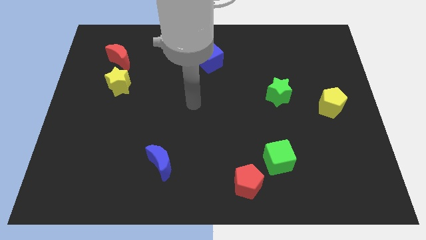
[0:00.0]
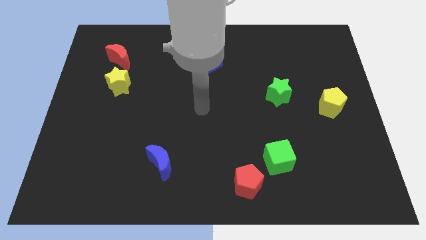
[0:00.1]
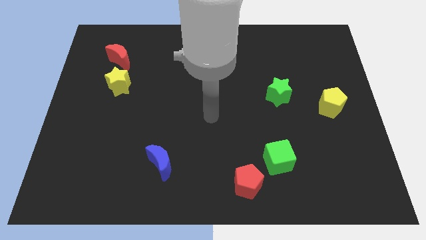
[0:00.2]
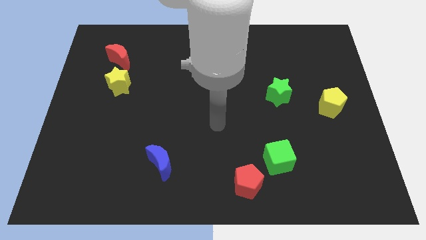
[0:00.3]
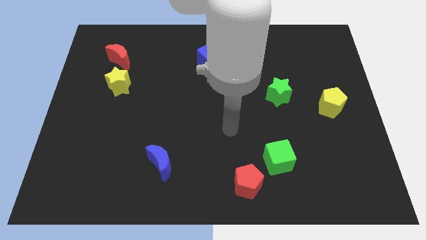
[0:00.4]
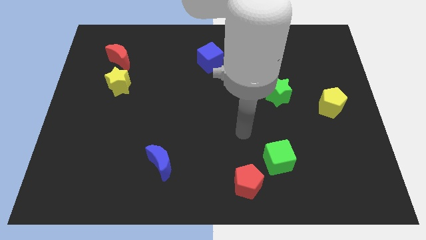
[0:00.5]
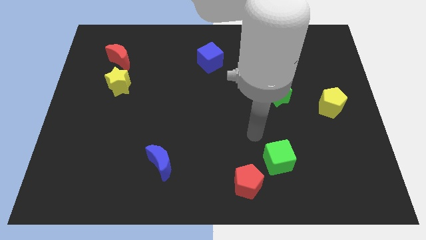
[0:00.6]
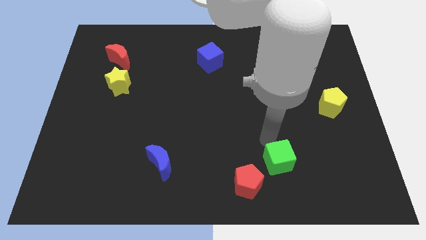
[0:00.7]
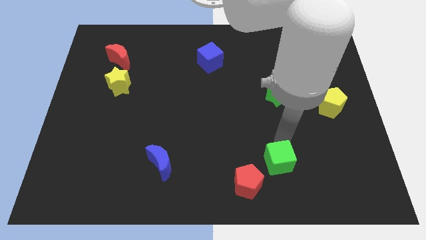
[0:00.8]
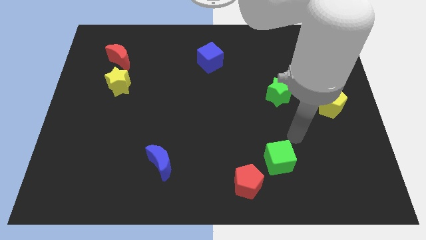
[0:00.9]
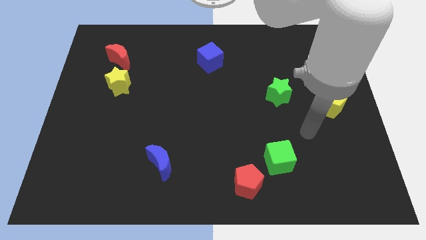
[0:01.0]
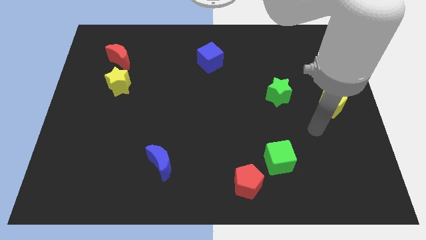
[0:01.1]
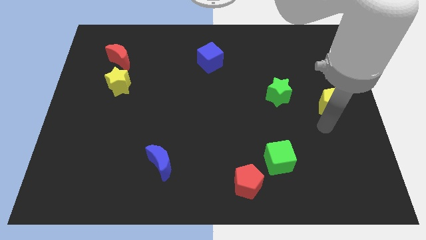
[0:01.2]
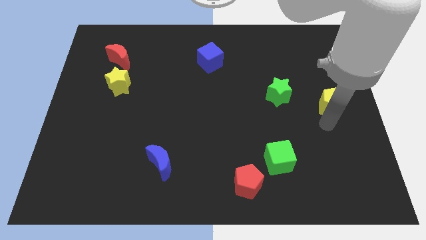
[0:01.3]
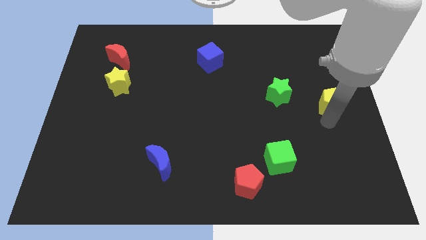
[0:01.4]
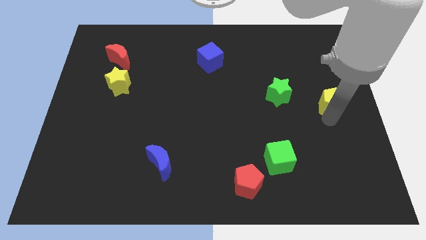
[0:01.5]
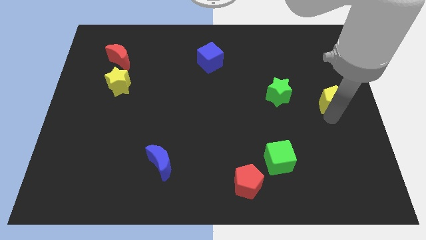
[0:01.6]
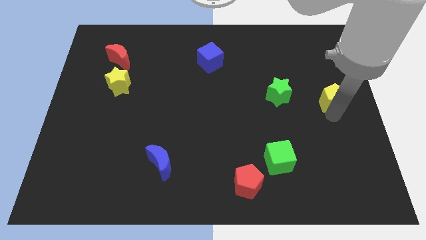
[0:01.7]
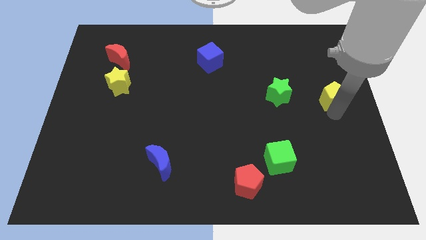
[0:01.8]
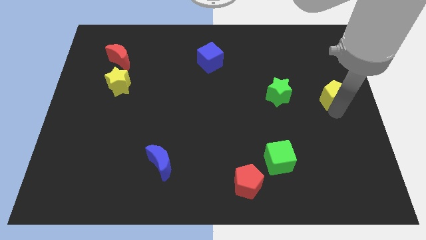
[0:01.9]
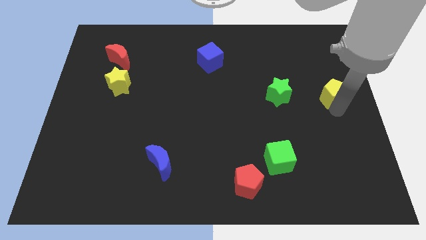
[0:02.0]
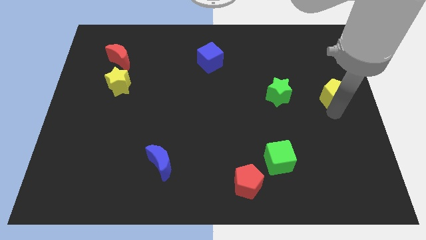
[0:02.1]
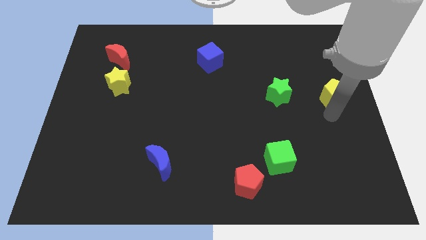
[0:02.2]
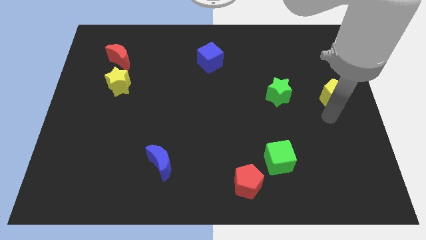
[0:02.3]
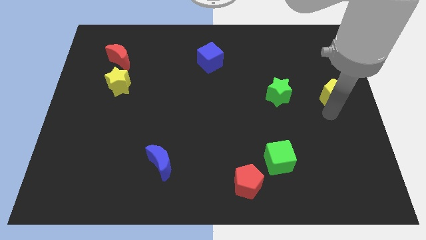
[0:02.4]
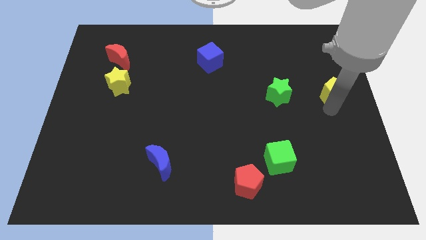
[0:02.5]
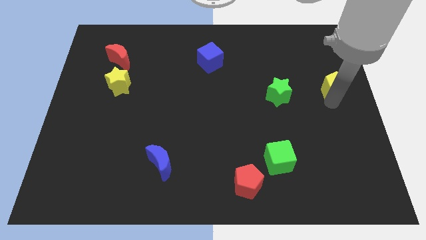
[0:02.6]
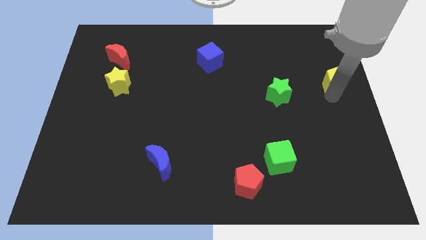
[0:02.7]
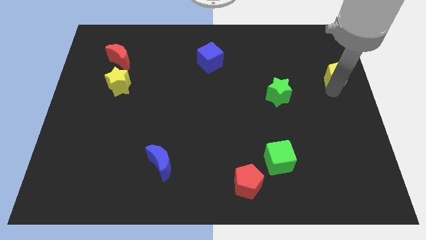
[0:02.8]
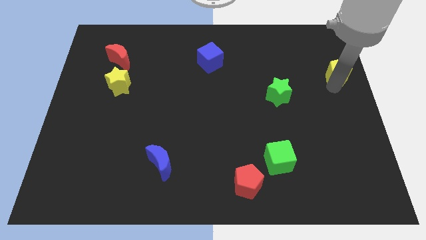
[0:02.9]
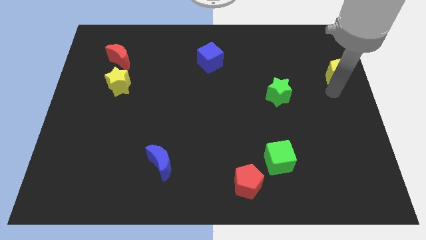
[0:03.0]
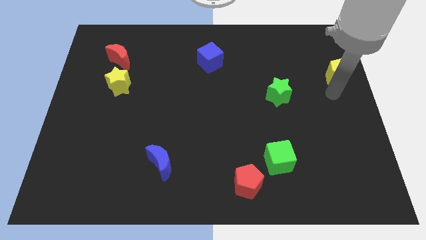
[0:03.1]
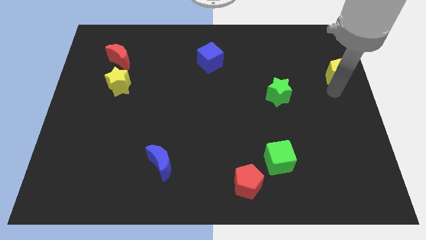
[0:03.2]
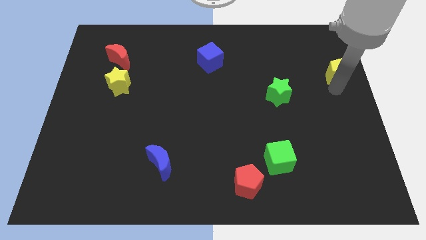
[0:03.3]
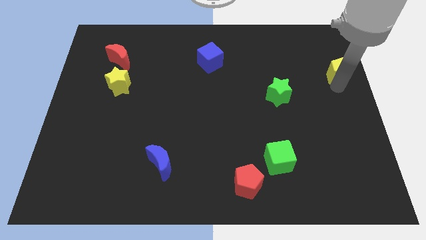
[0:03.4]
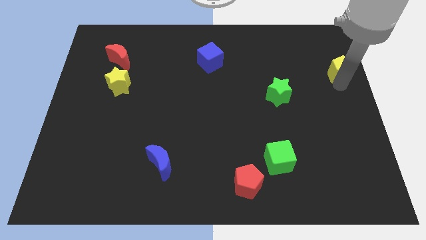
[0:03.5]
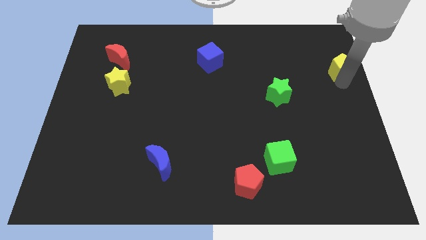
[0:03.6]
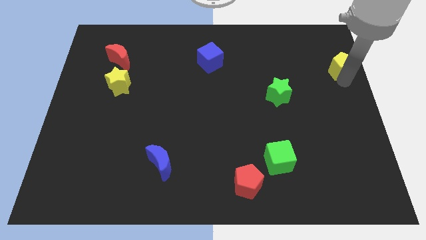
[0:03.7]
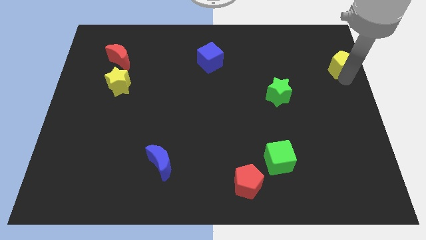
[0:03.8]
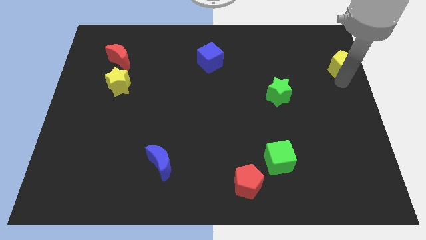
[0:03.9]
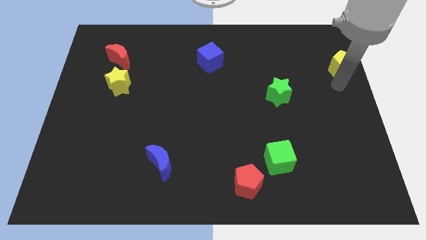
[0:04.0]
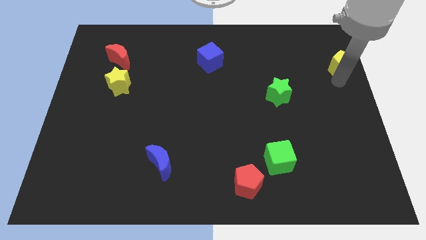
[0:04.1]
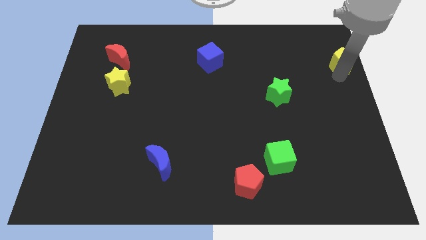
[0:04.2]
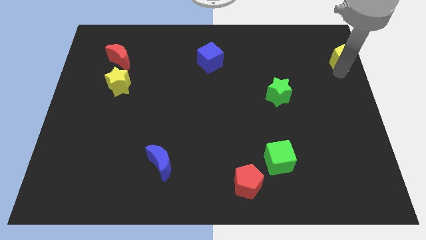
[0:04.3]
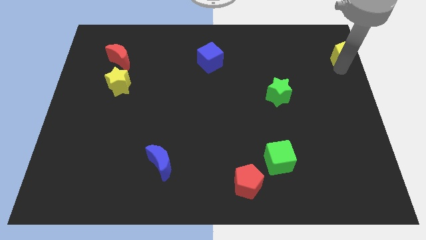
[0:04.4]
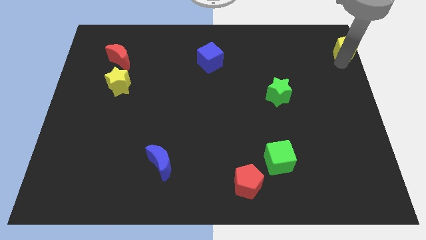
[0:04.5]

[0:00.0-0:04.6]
slide the yellow pentagon to the top right corner

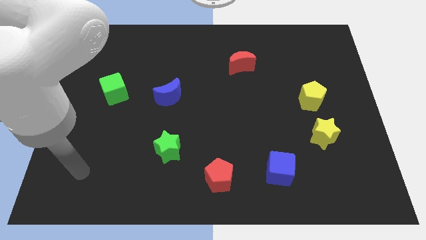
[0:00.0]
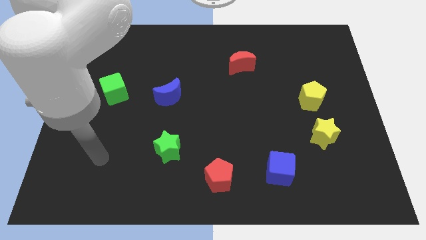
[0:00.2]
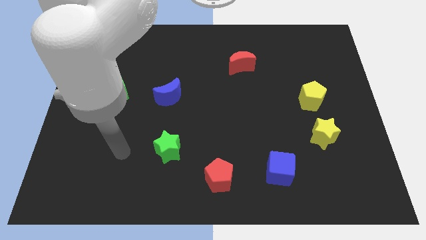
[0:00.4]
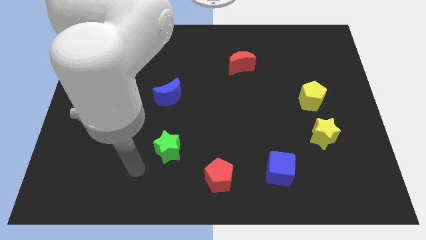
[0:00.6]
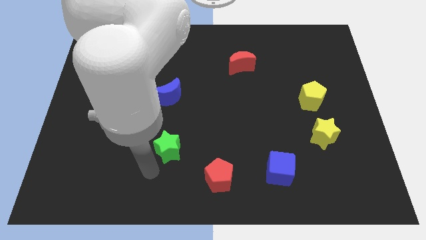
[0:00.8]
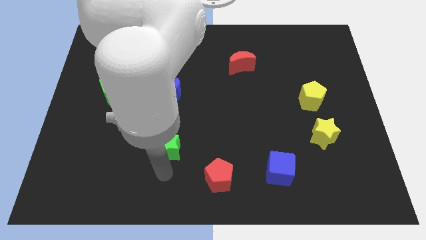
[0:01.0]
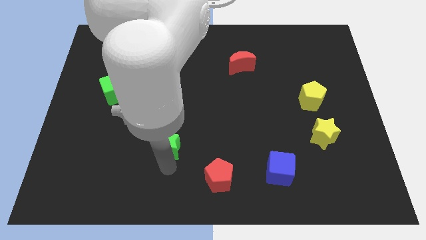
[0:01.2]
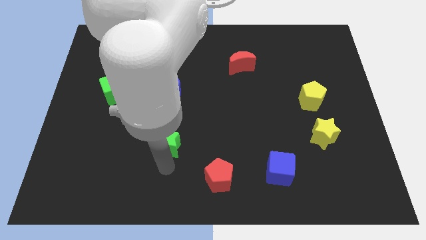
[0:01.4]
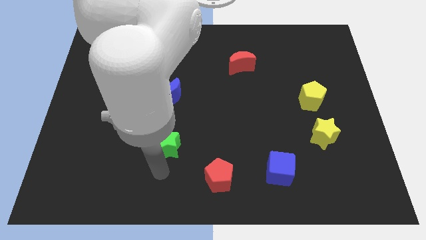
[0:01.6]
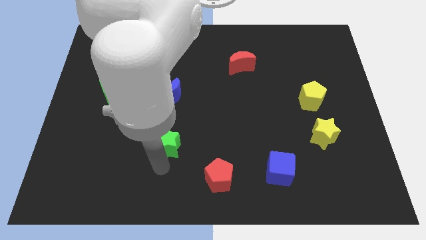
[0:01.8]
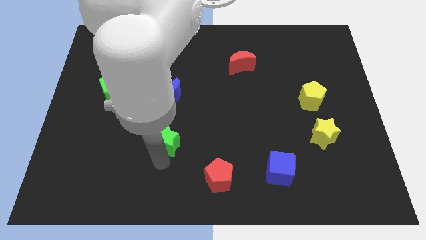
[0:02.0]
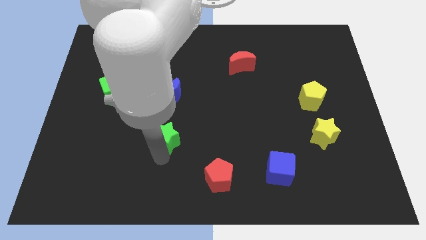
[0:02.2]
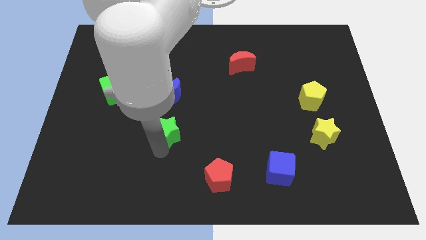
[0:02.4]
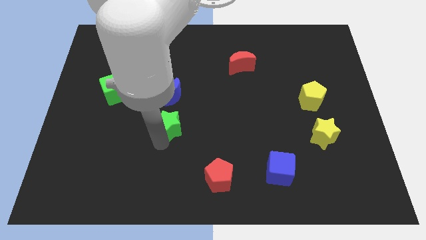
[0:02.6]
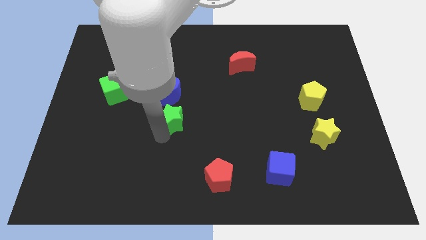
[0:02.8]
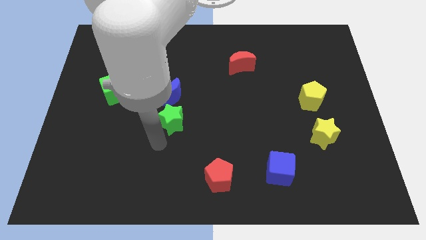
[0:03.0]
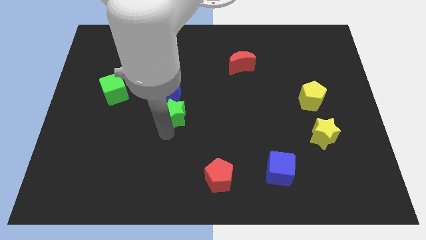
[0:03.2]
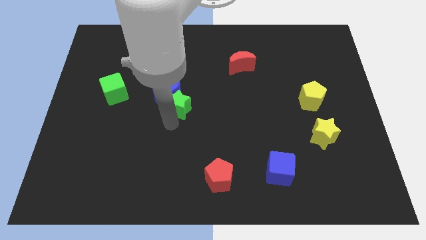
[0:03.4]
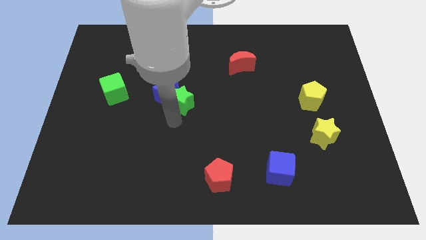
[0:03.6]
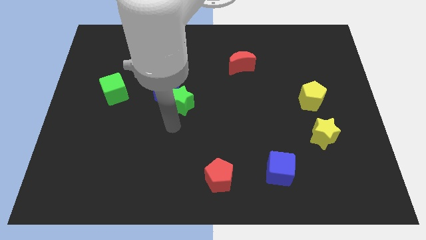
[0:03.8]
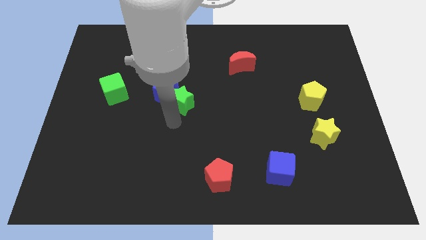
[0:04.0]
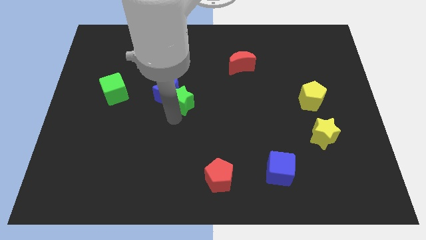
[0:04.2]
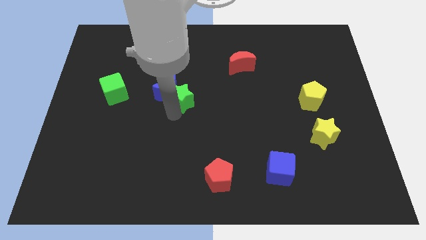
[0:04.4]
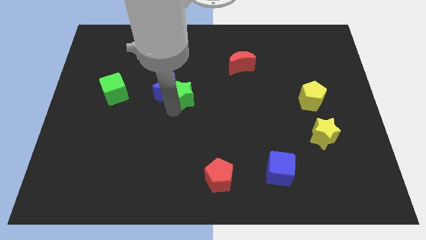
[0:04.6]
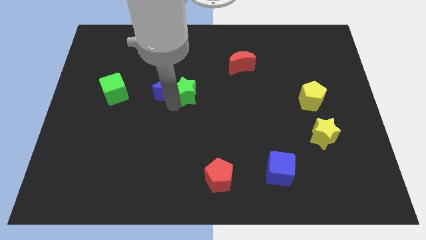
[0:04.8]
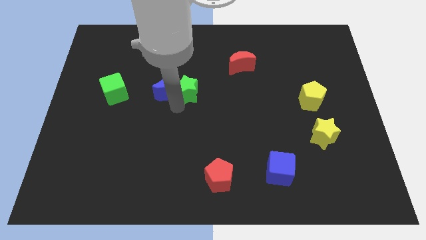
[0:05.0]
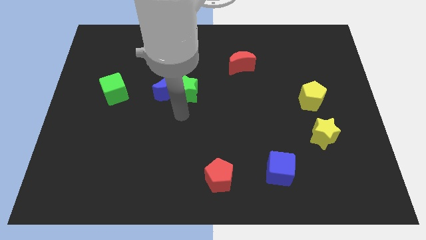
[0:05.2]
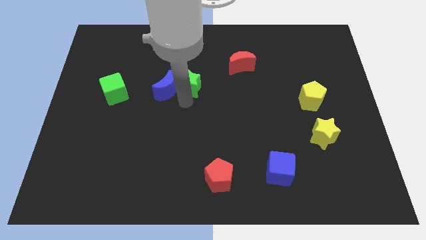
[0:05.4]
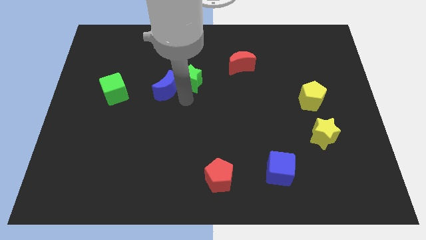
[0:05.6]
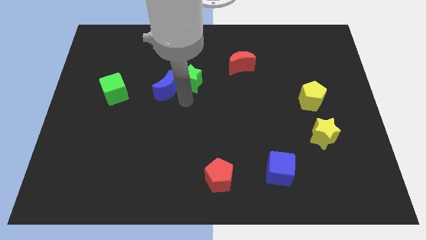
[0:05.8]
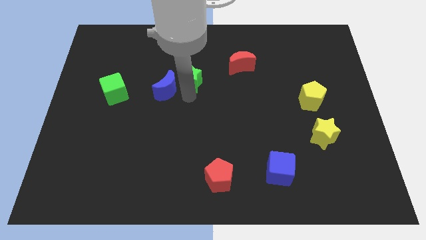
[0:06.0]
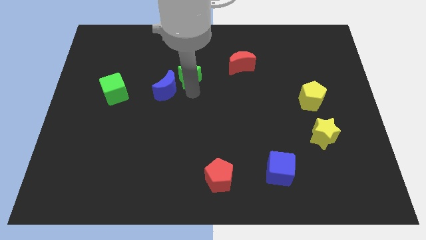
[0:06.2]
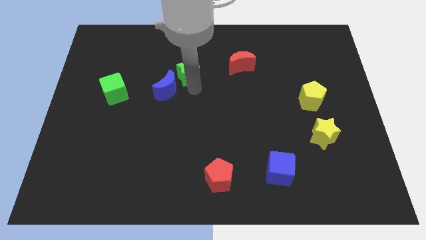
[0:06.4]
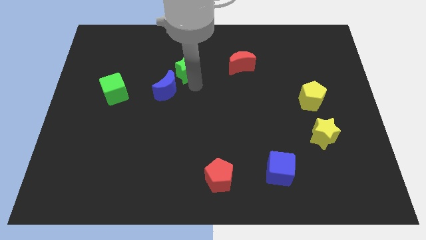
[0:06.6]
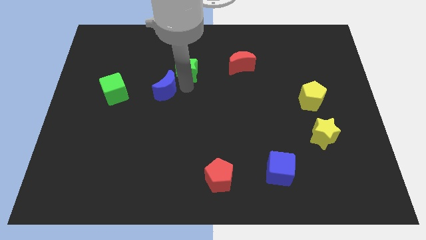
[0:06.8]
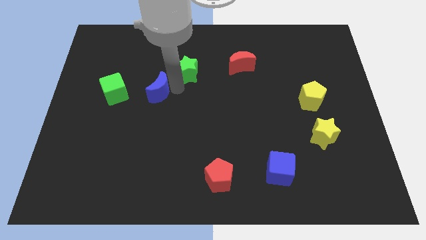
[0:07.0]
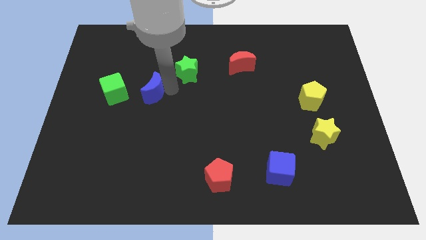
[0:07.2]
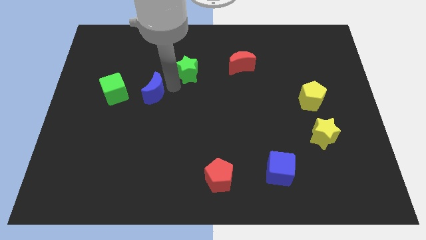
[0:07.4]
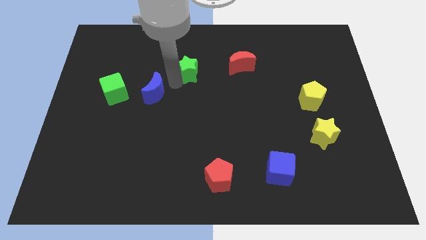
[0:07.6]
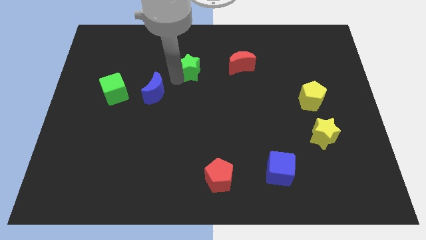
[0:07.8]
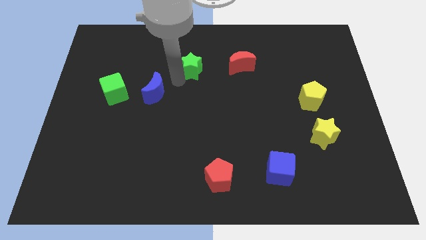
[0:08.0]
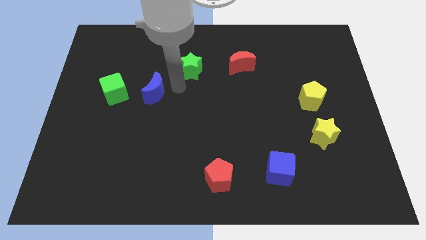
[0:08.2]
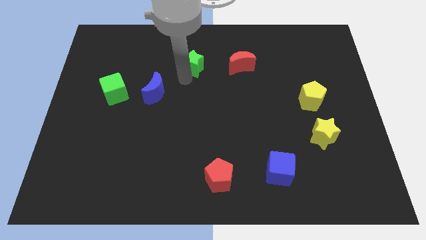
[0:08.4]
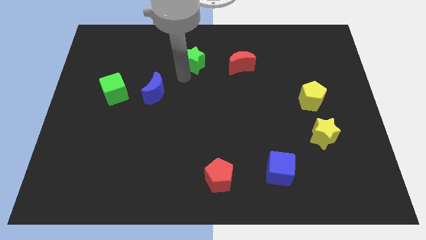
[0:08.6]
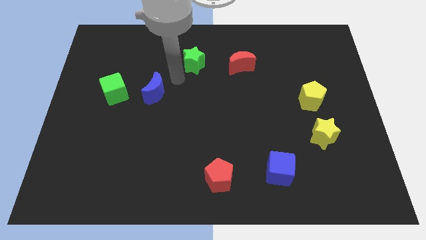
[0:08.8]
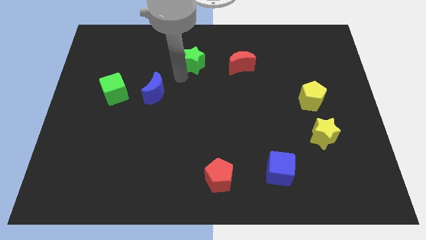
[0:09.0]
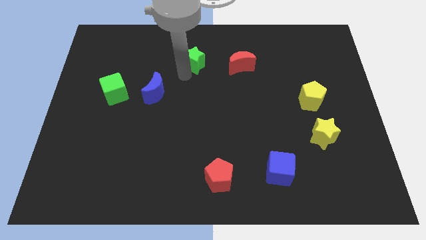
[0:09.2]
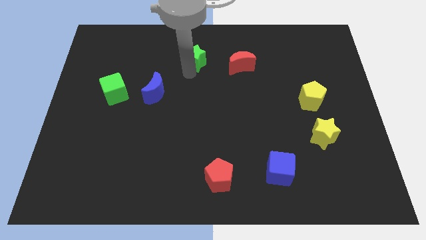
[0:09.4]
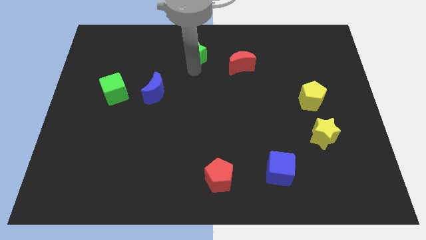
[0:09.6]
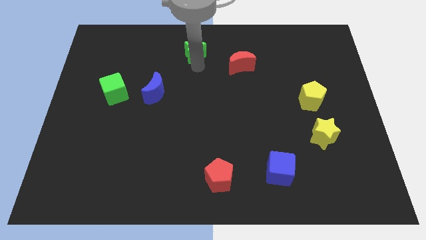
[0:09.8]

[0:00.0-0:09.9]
slide the green star to the top side
